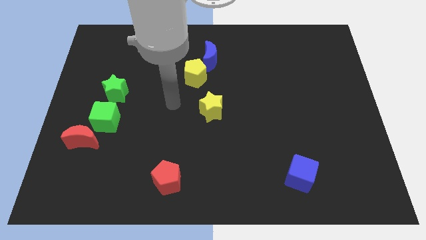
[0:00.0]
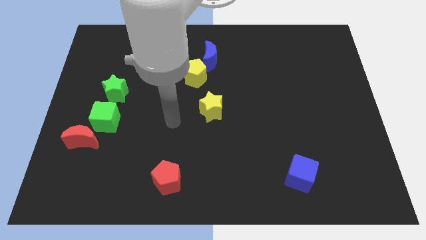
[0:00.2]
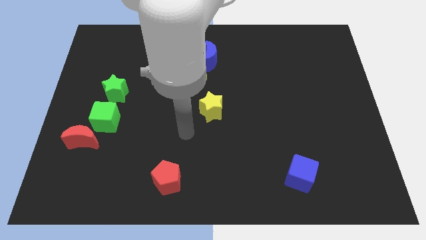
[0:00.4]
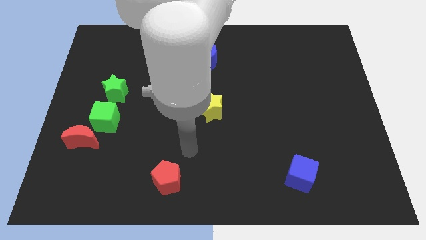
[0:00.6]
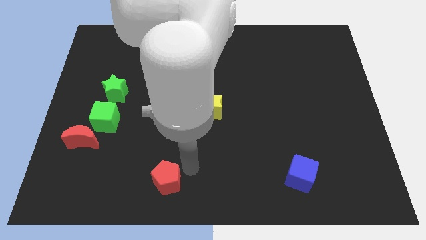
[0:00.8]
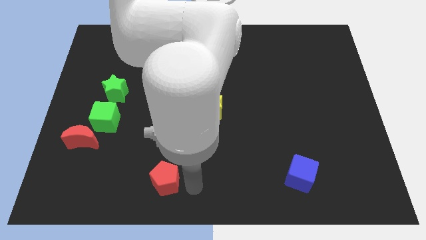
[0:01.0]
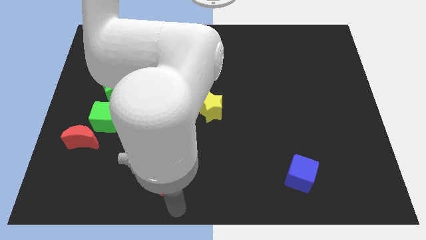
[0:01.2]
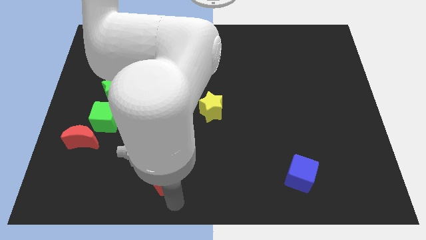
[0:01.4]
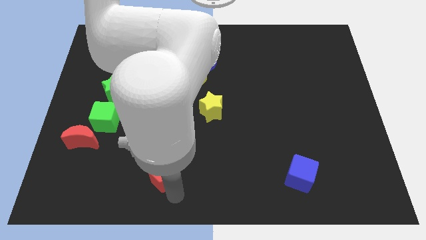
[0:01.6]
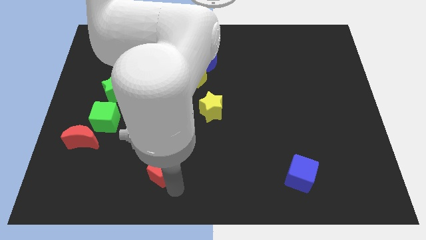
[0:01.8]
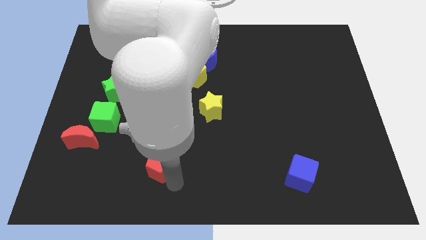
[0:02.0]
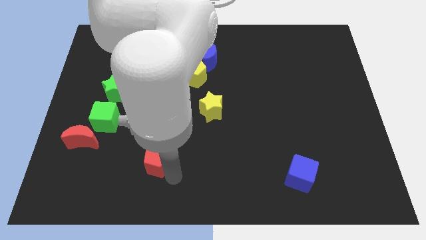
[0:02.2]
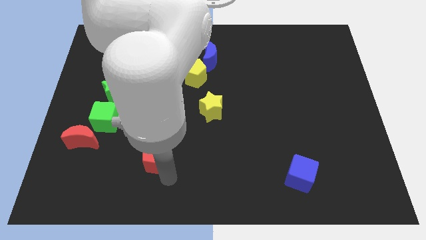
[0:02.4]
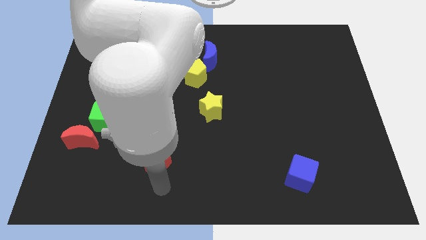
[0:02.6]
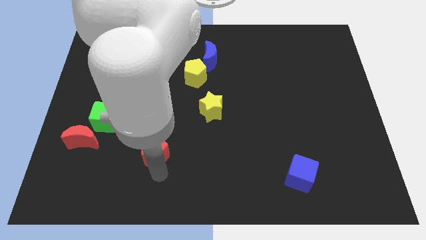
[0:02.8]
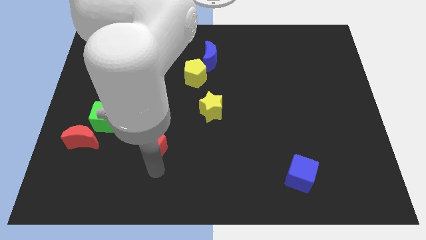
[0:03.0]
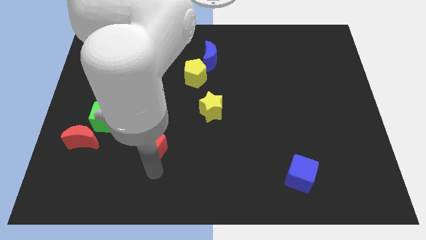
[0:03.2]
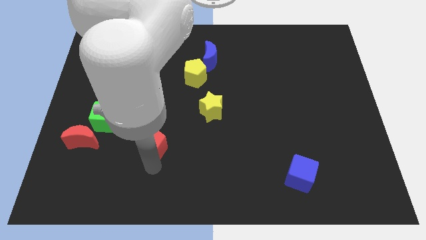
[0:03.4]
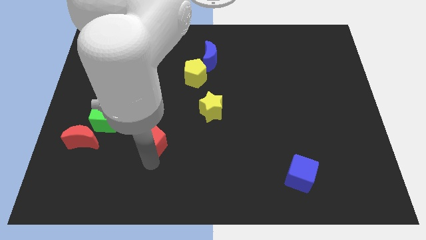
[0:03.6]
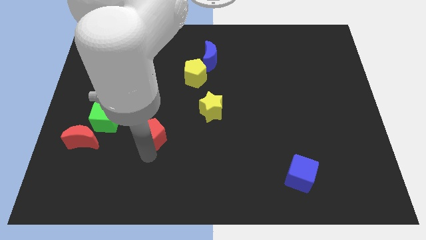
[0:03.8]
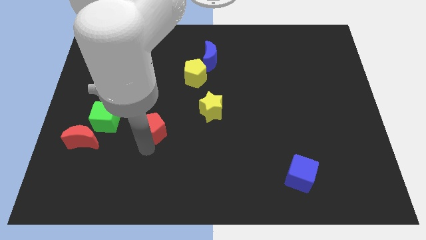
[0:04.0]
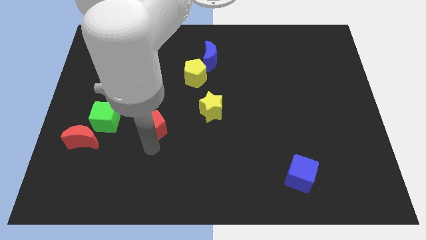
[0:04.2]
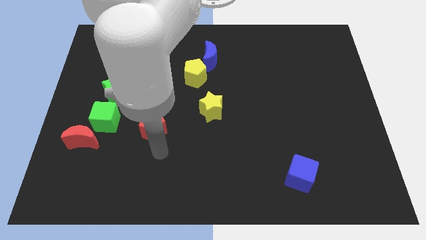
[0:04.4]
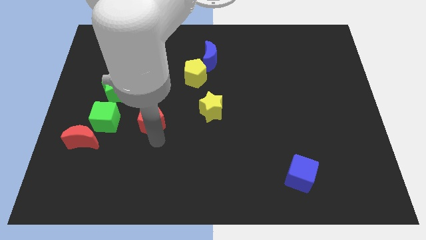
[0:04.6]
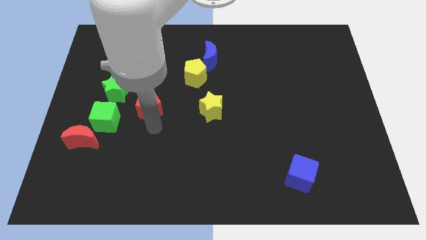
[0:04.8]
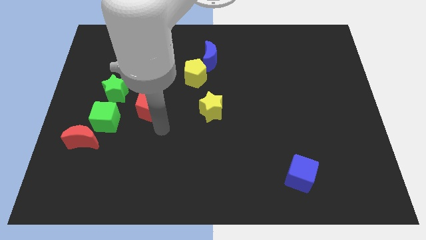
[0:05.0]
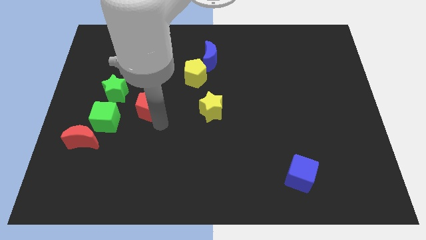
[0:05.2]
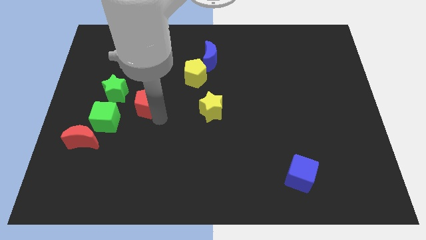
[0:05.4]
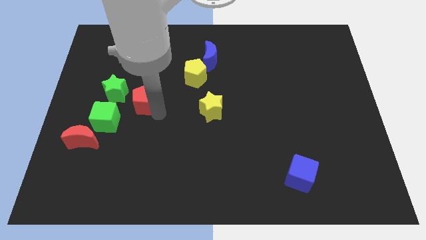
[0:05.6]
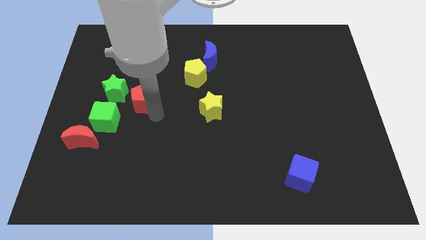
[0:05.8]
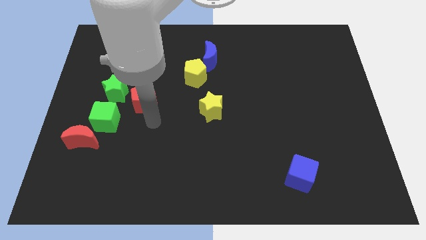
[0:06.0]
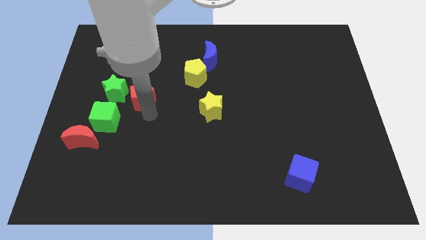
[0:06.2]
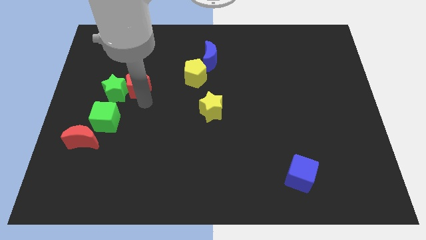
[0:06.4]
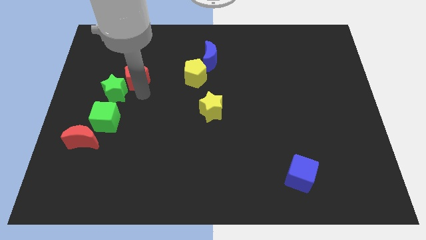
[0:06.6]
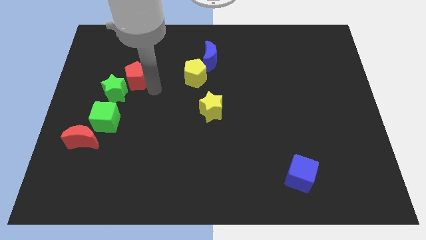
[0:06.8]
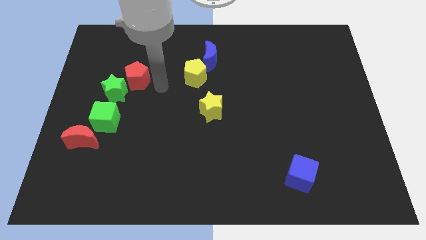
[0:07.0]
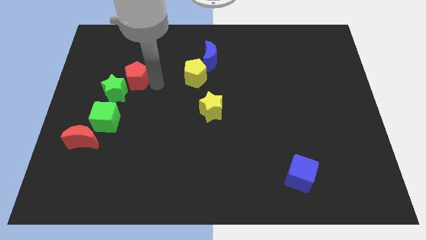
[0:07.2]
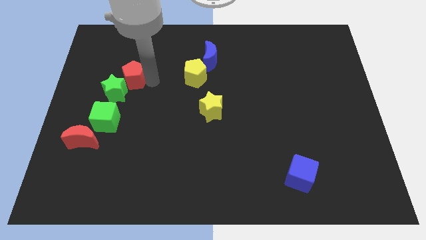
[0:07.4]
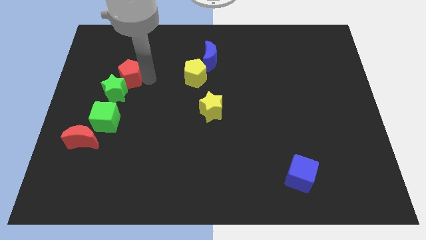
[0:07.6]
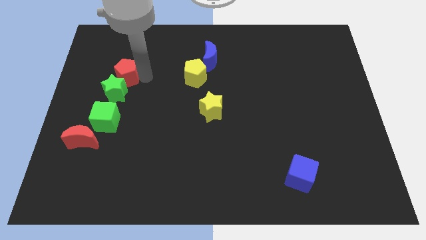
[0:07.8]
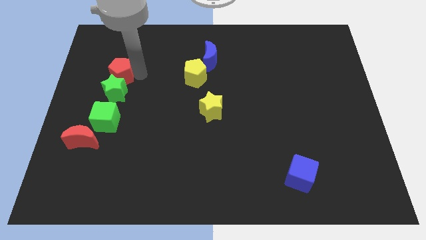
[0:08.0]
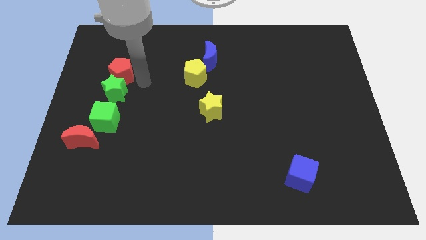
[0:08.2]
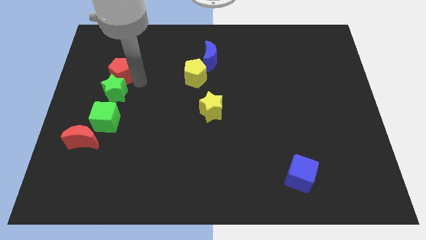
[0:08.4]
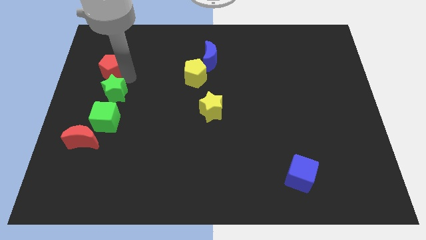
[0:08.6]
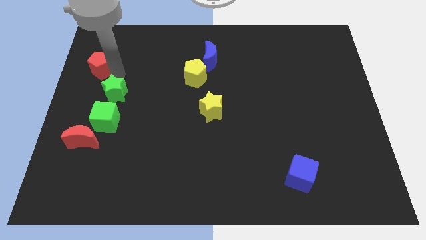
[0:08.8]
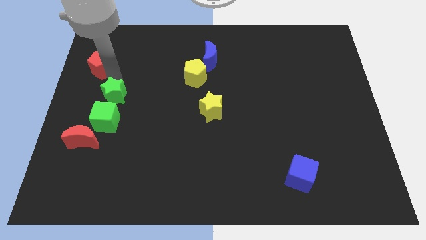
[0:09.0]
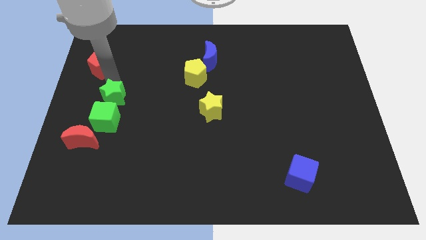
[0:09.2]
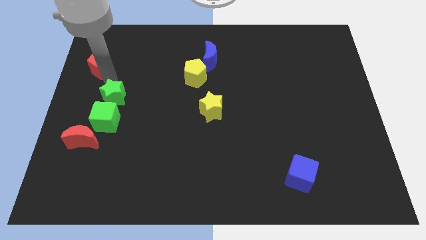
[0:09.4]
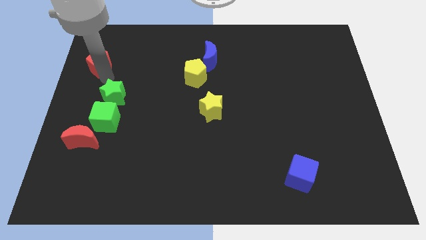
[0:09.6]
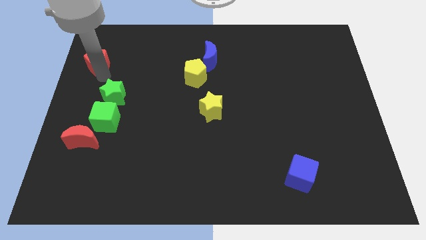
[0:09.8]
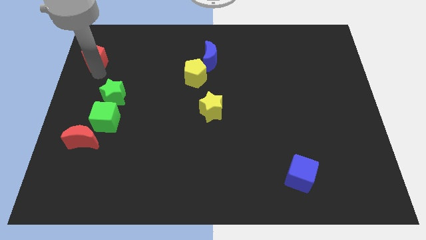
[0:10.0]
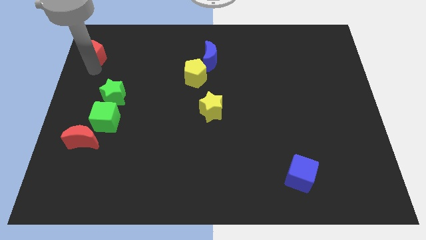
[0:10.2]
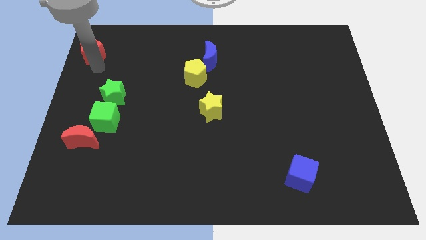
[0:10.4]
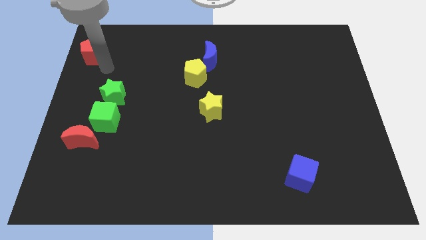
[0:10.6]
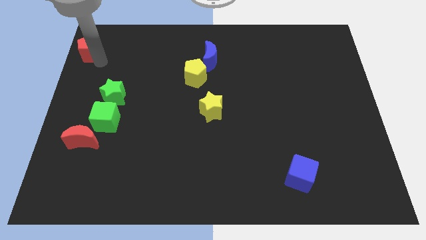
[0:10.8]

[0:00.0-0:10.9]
put the red pentagon to the top left of the board
